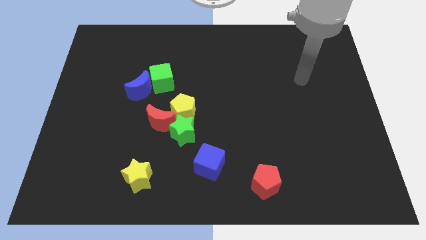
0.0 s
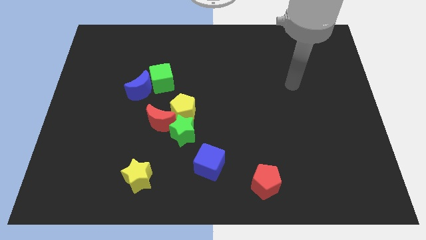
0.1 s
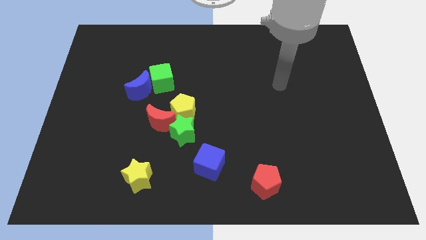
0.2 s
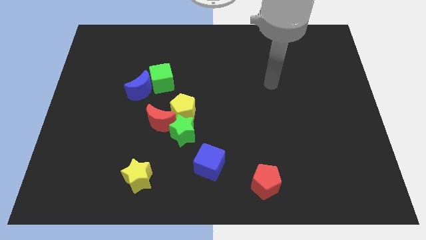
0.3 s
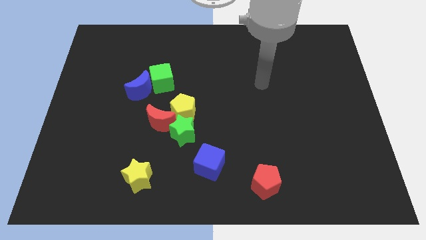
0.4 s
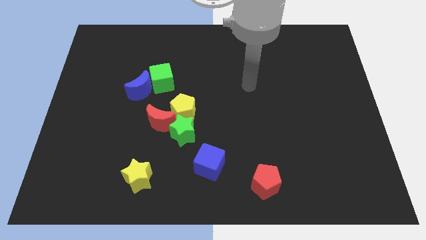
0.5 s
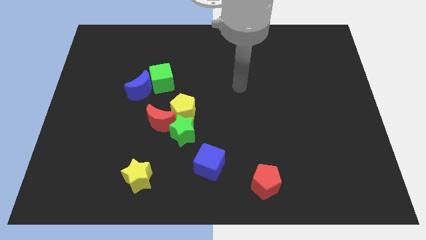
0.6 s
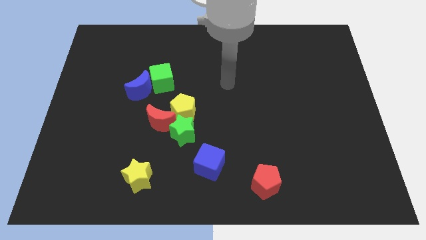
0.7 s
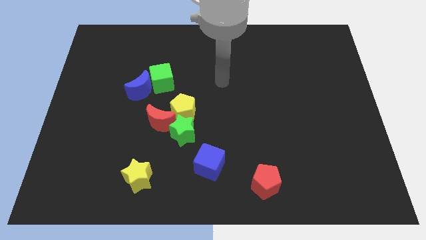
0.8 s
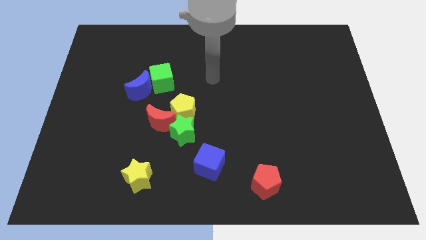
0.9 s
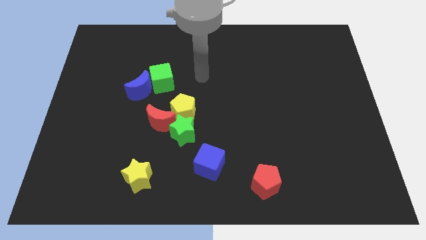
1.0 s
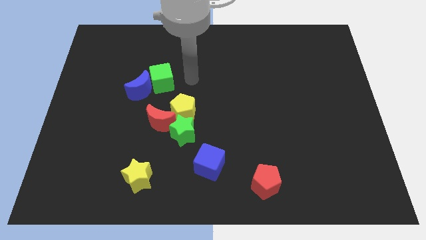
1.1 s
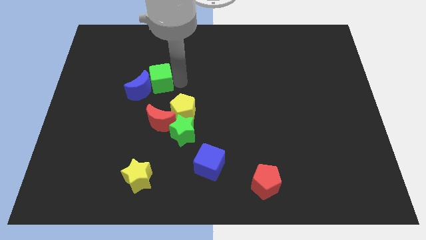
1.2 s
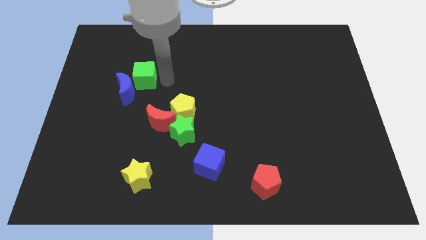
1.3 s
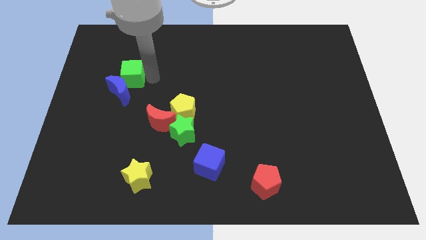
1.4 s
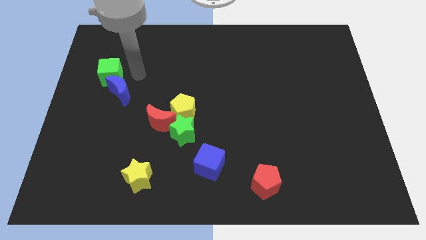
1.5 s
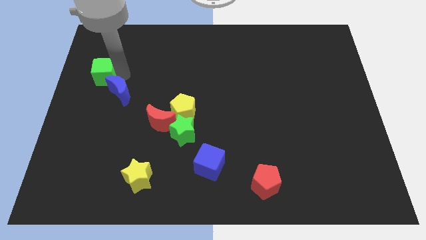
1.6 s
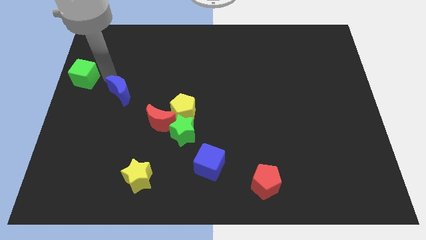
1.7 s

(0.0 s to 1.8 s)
pull the blue moon apart from the green cube

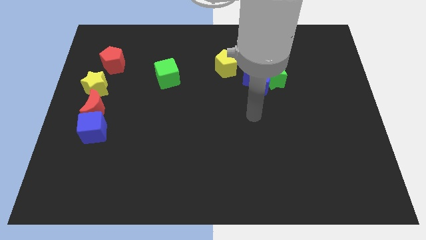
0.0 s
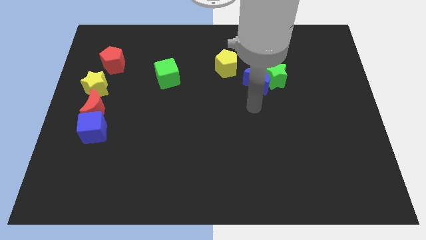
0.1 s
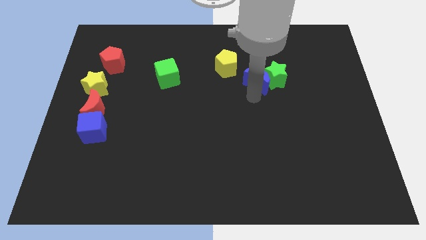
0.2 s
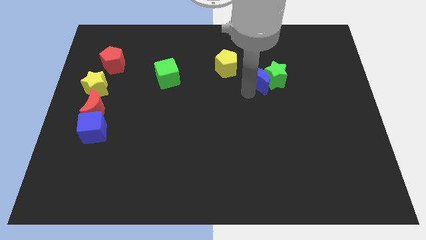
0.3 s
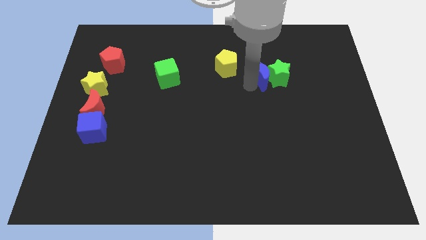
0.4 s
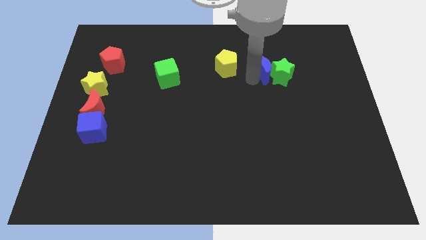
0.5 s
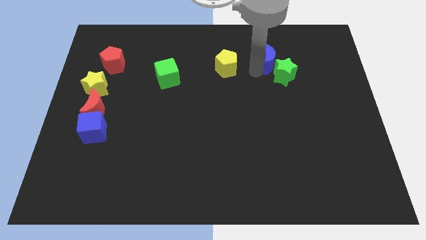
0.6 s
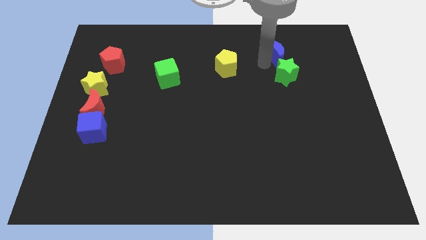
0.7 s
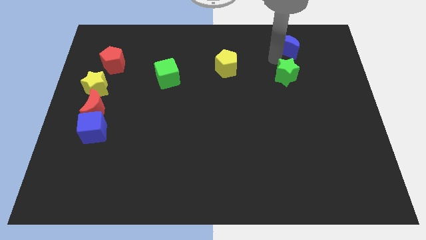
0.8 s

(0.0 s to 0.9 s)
move the green star away from the blue moon

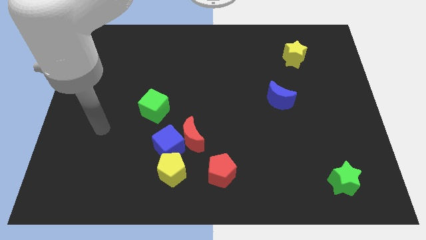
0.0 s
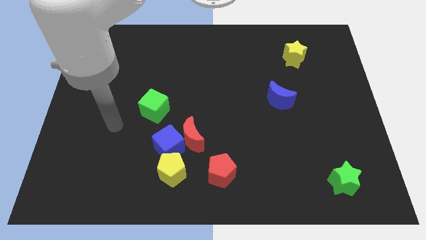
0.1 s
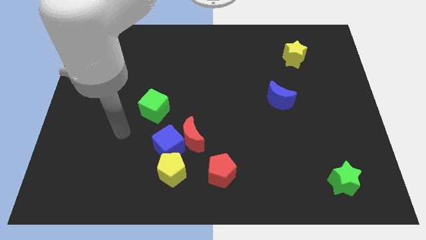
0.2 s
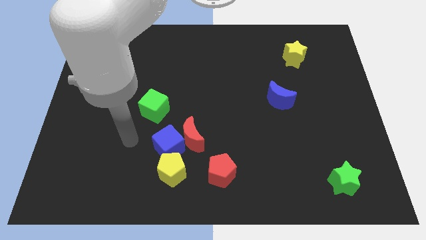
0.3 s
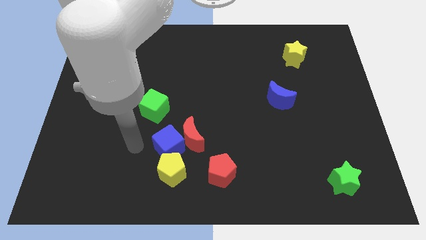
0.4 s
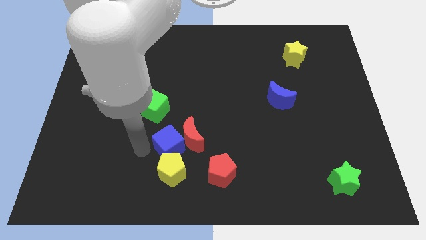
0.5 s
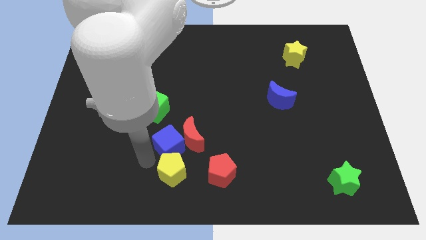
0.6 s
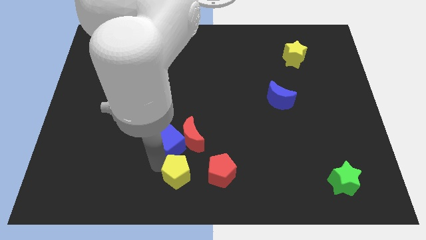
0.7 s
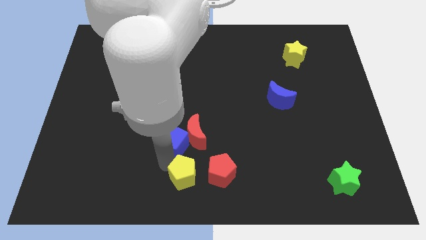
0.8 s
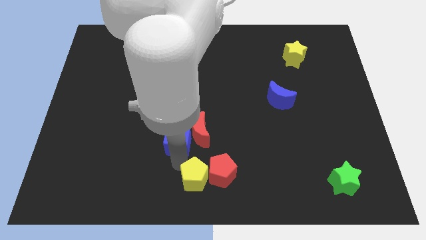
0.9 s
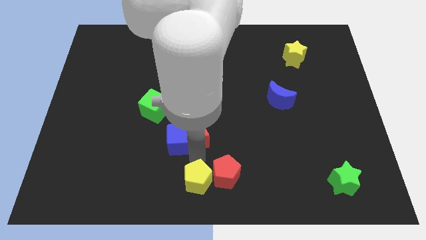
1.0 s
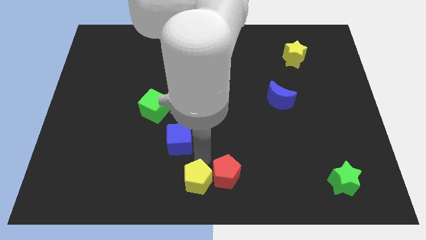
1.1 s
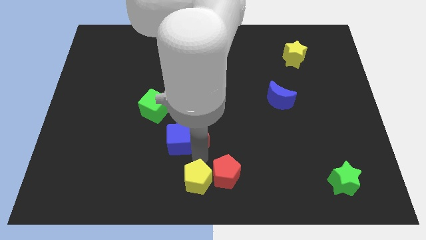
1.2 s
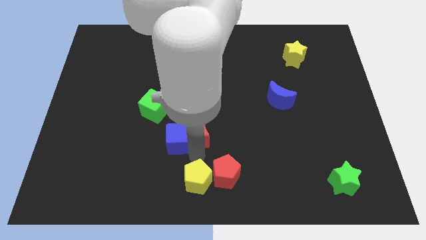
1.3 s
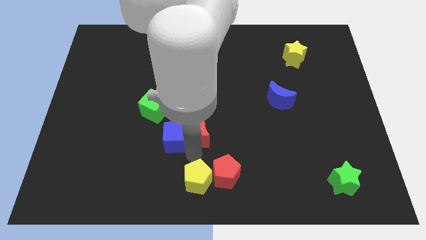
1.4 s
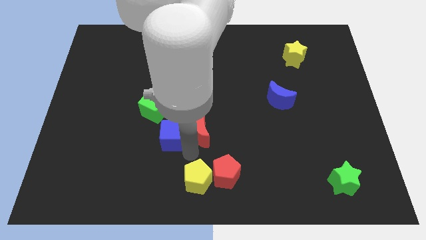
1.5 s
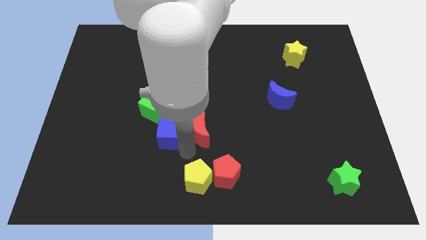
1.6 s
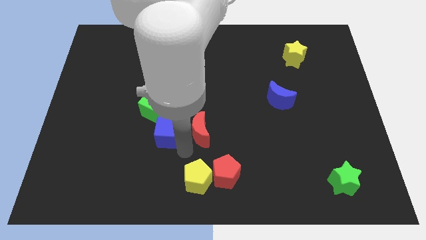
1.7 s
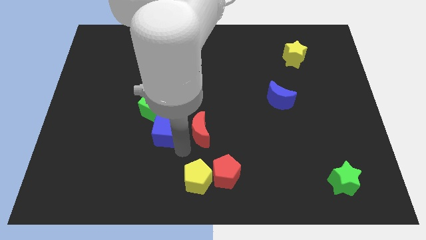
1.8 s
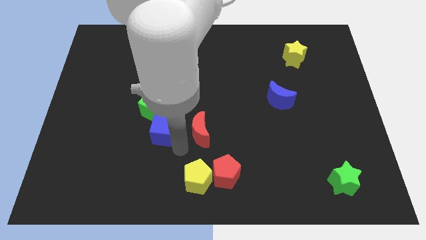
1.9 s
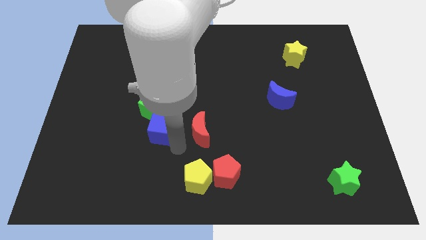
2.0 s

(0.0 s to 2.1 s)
separate the blue cube from the red moon and yellow pentagon

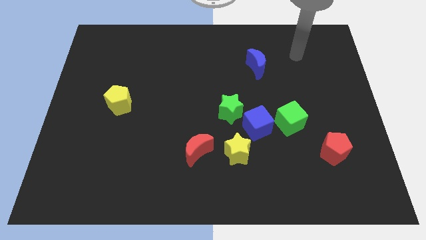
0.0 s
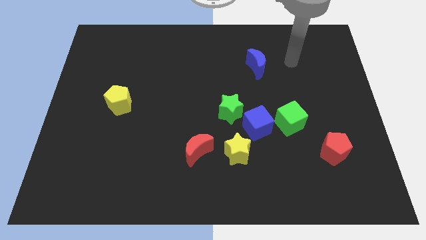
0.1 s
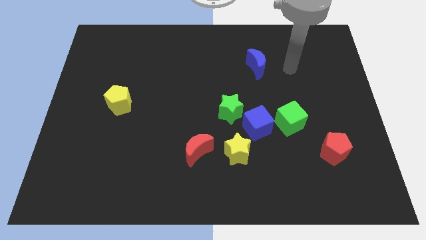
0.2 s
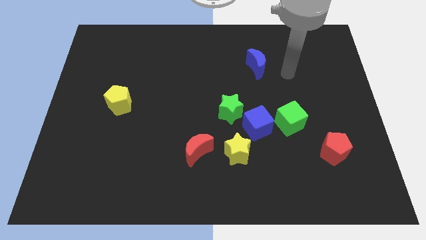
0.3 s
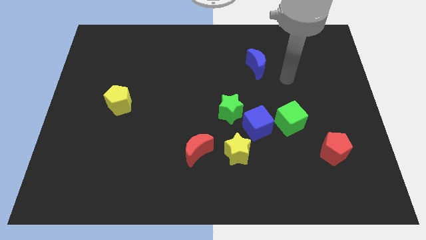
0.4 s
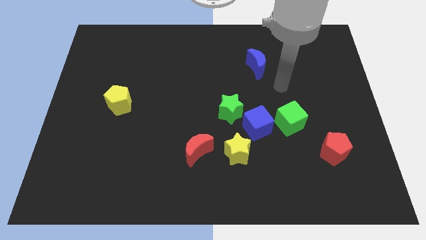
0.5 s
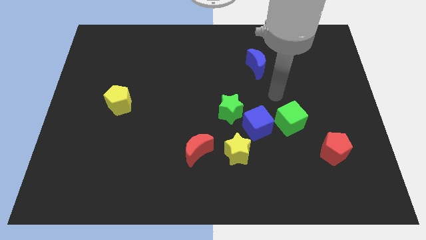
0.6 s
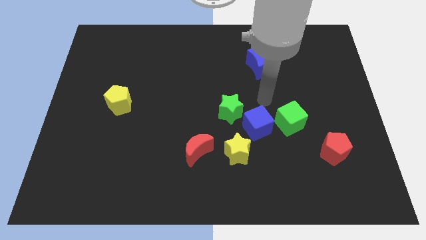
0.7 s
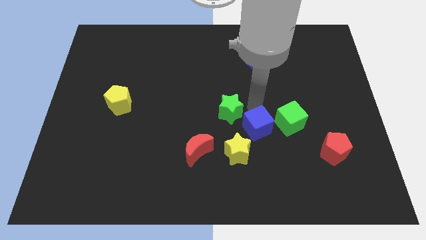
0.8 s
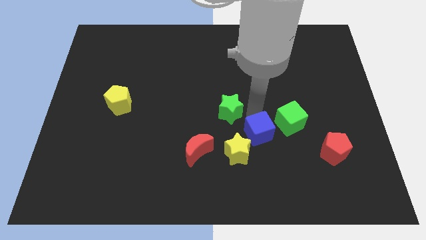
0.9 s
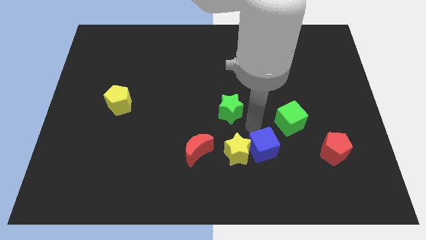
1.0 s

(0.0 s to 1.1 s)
separate the green star from the blue cube

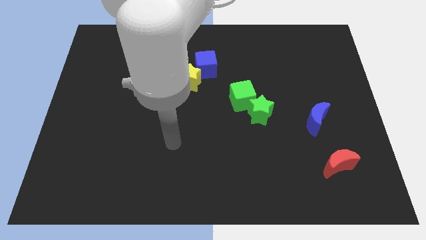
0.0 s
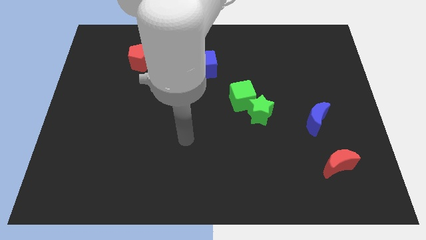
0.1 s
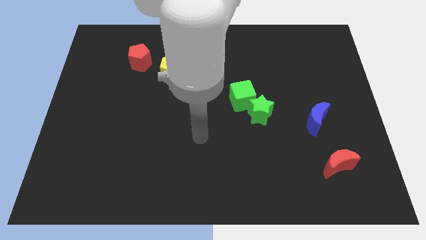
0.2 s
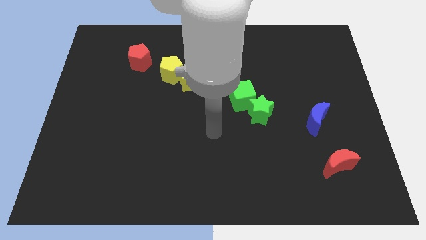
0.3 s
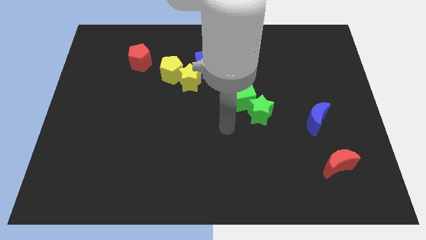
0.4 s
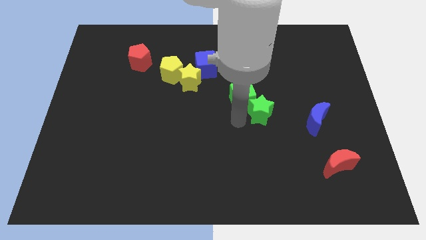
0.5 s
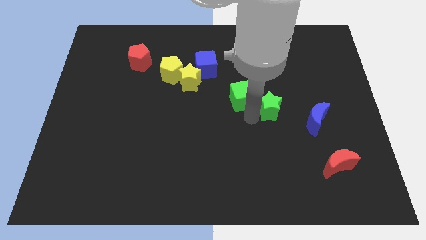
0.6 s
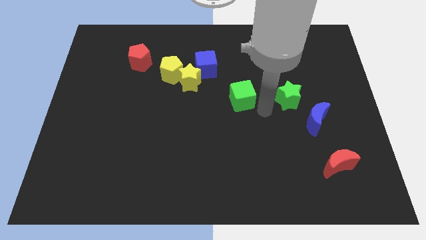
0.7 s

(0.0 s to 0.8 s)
move the green cube away from the green star

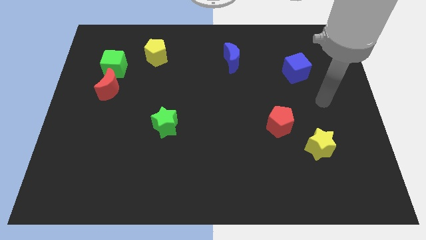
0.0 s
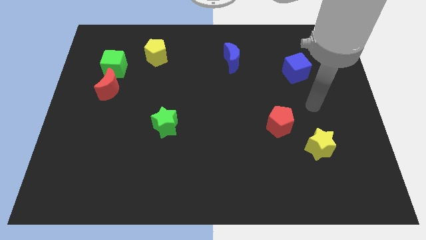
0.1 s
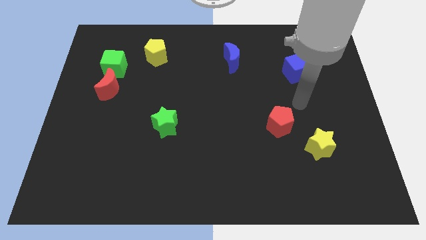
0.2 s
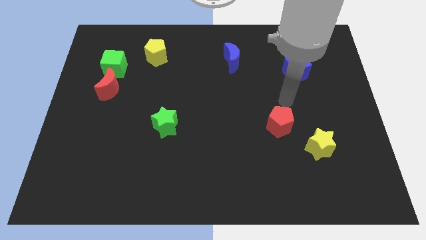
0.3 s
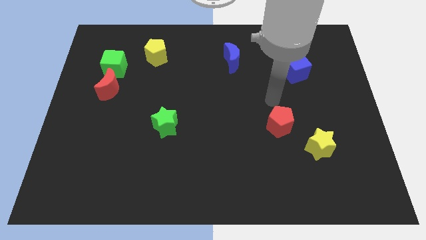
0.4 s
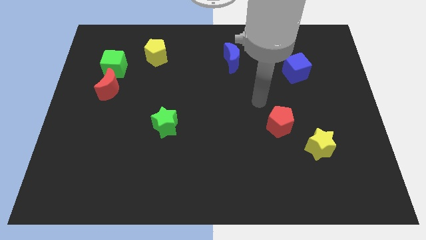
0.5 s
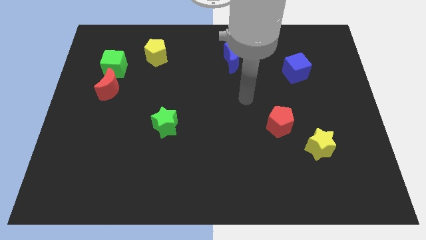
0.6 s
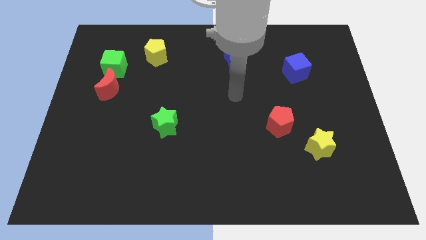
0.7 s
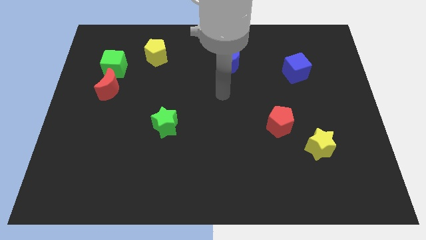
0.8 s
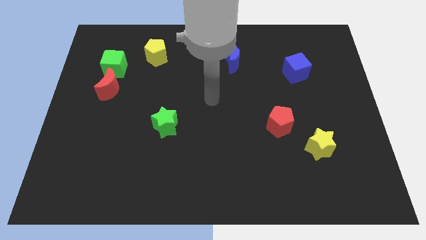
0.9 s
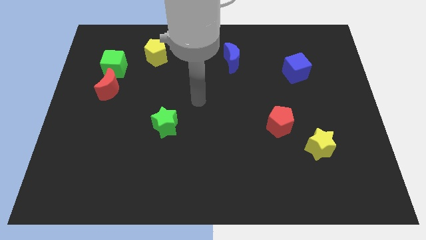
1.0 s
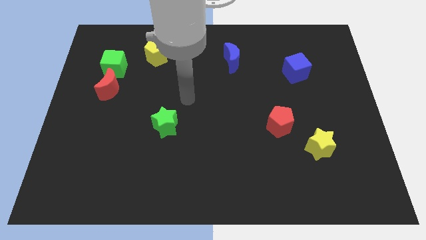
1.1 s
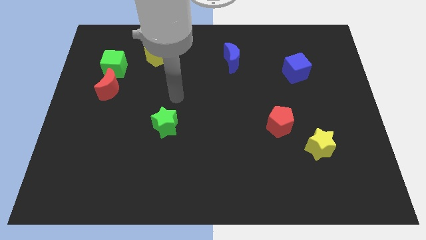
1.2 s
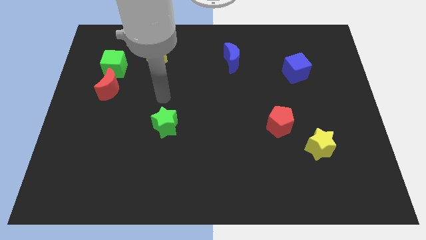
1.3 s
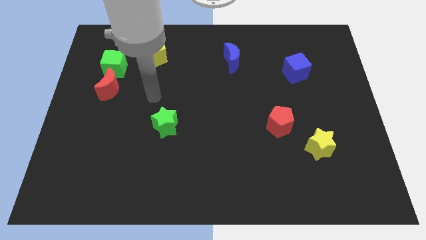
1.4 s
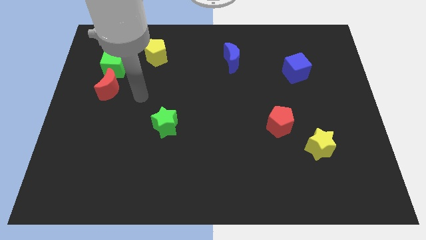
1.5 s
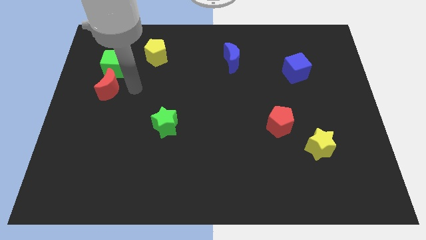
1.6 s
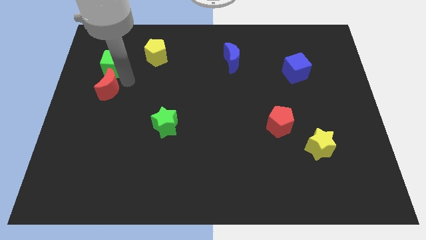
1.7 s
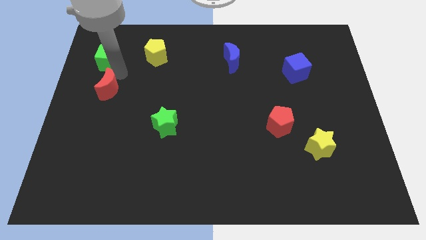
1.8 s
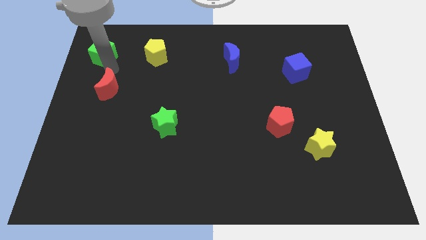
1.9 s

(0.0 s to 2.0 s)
pull the red moon apart from the green cube

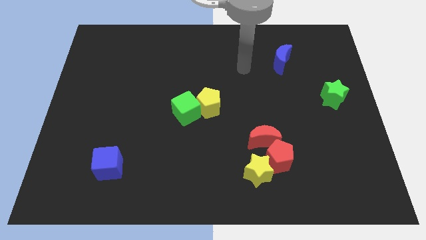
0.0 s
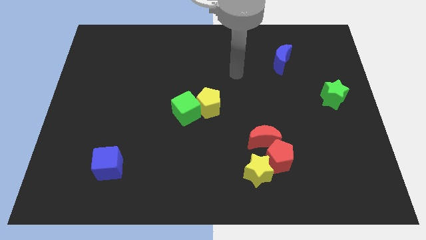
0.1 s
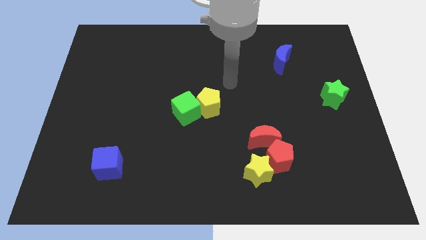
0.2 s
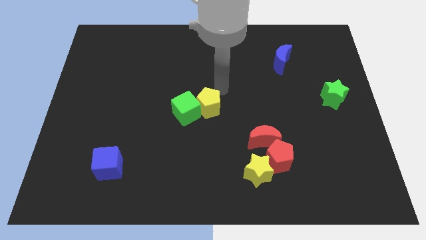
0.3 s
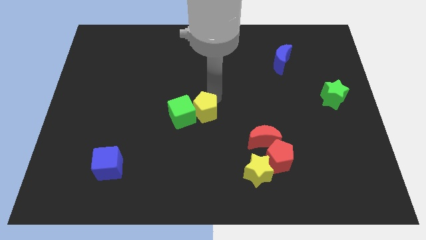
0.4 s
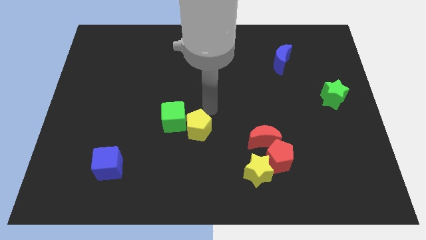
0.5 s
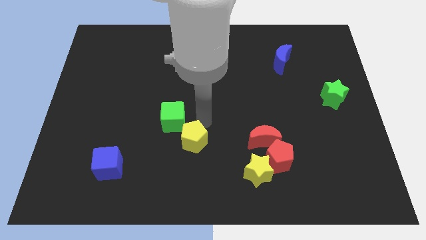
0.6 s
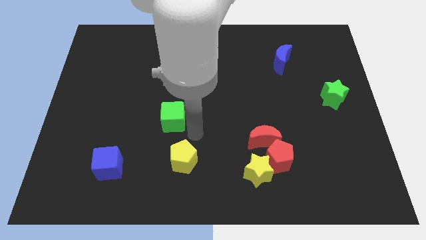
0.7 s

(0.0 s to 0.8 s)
move the green cube away from the yellow pentagon
